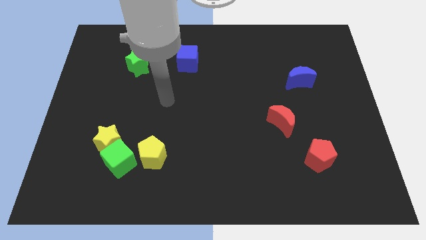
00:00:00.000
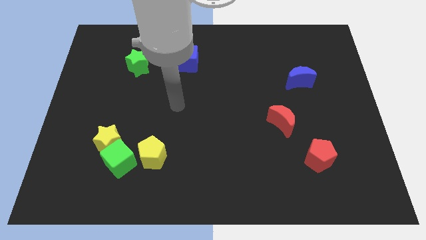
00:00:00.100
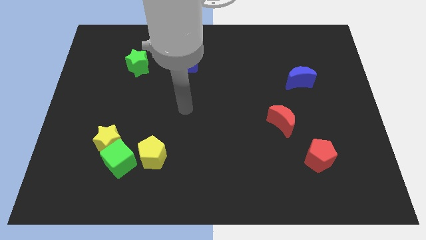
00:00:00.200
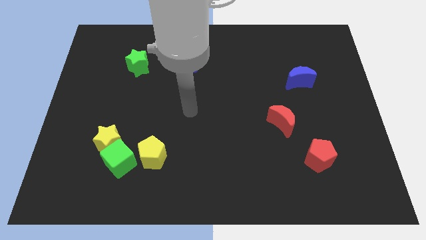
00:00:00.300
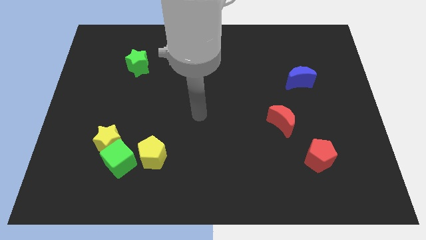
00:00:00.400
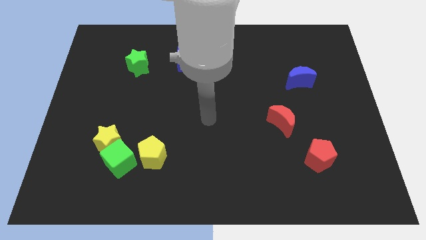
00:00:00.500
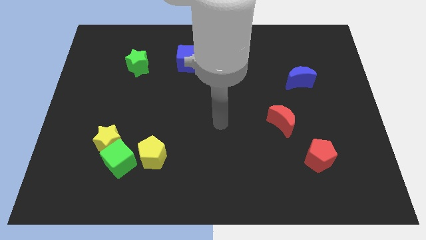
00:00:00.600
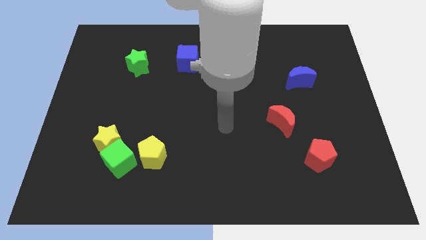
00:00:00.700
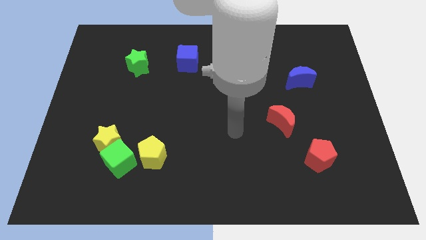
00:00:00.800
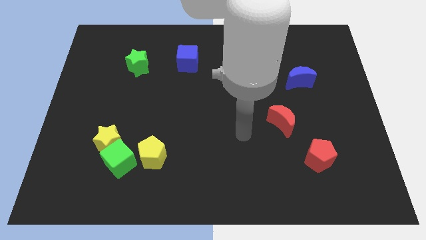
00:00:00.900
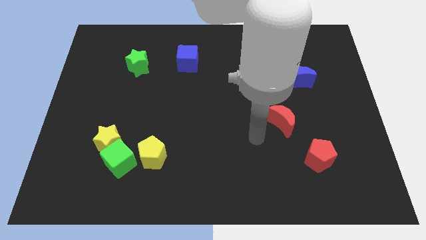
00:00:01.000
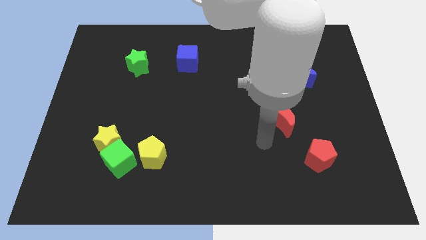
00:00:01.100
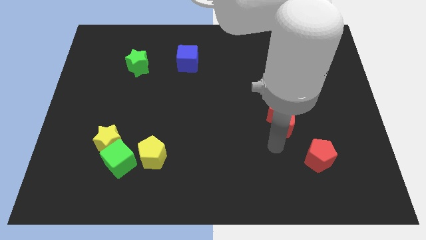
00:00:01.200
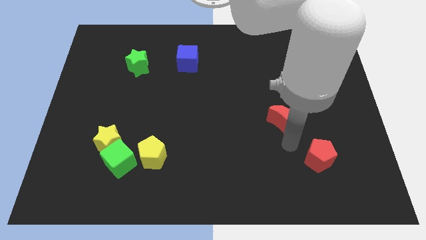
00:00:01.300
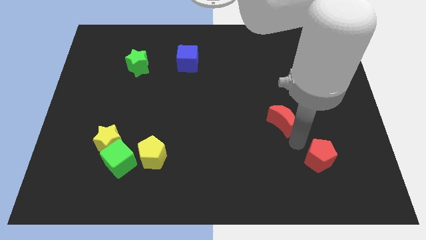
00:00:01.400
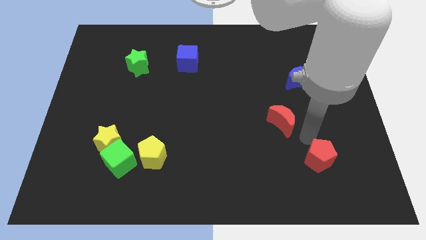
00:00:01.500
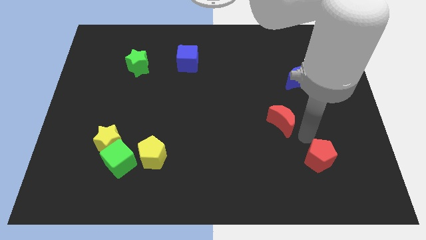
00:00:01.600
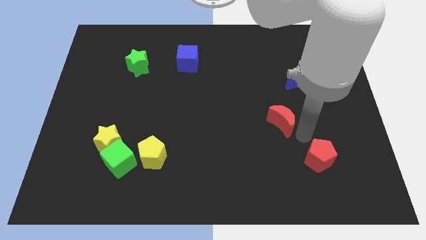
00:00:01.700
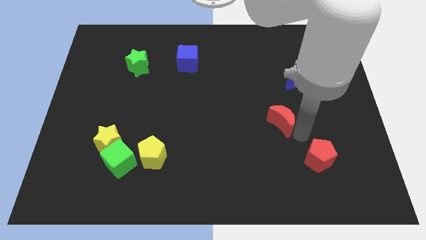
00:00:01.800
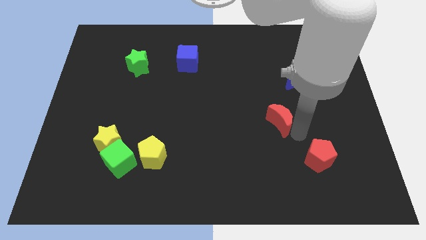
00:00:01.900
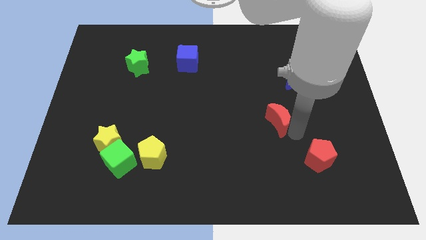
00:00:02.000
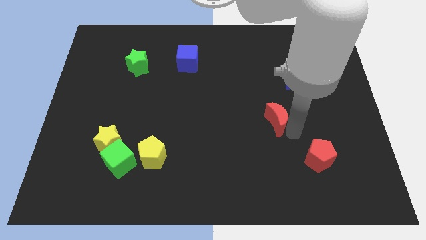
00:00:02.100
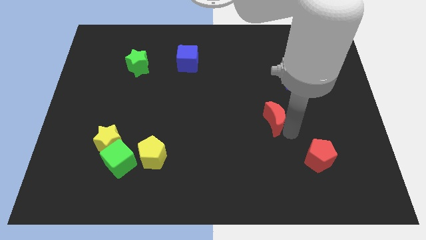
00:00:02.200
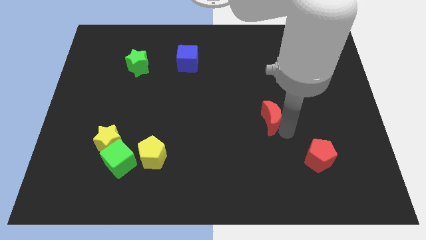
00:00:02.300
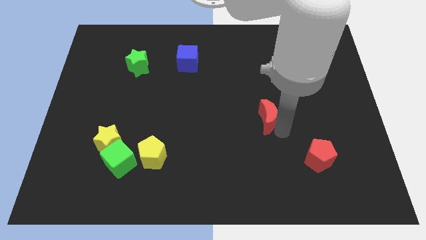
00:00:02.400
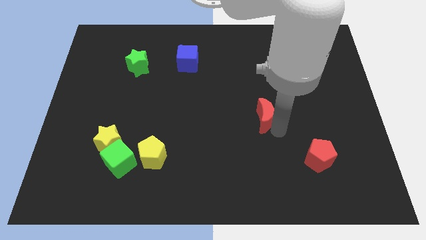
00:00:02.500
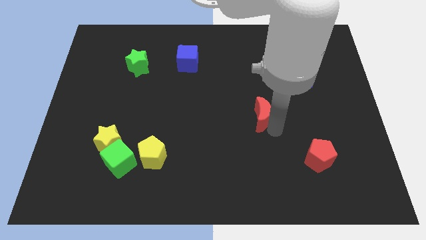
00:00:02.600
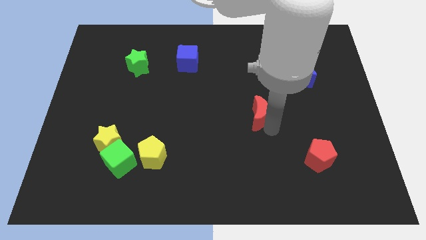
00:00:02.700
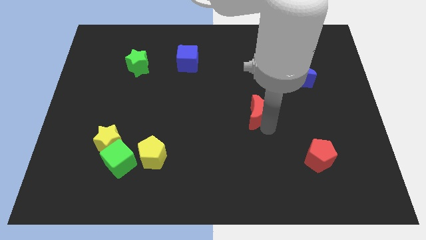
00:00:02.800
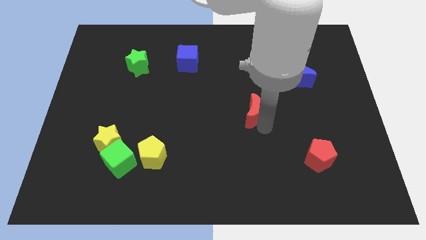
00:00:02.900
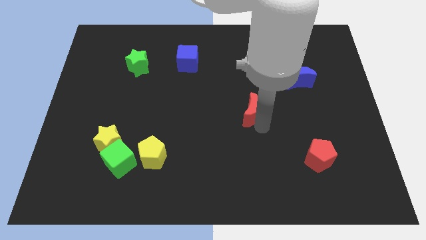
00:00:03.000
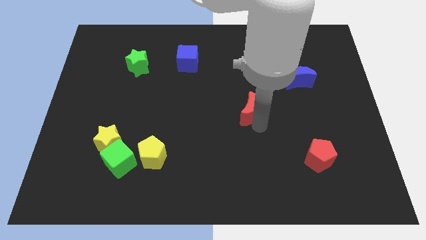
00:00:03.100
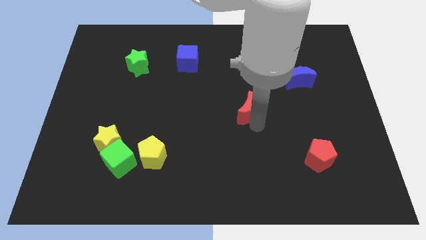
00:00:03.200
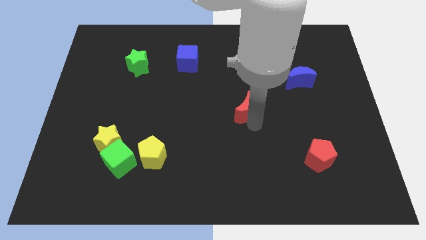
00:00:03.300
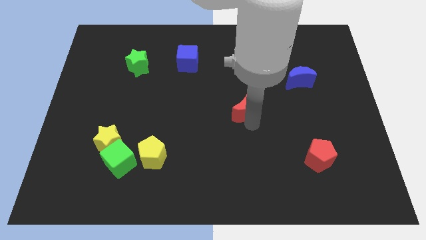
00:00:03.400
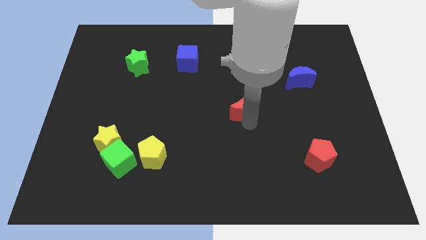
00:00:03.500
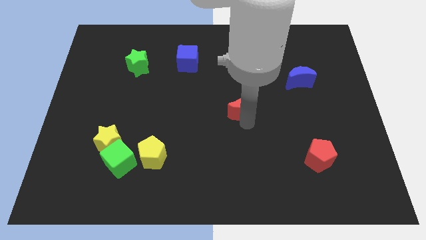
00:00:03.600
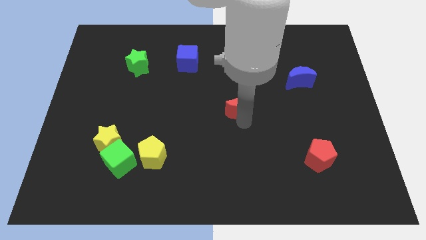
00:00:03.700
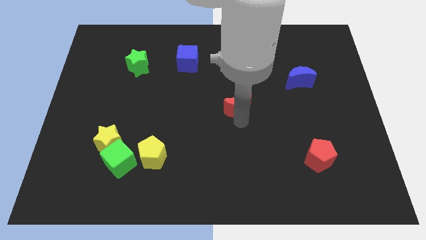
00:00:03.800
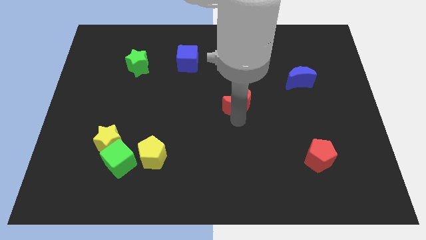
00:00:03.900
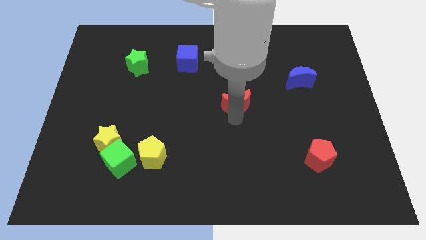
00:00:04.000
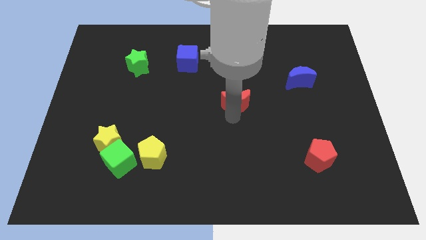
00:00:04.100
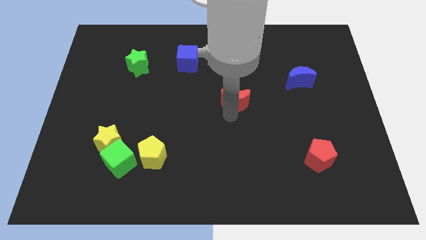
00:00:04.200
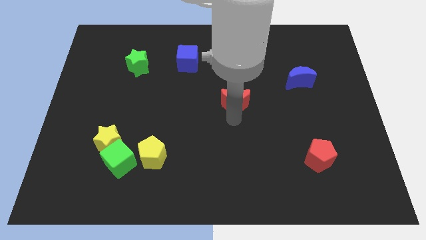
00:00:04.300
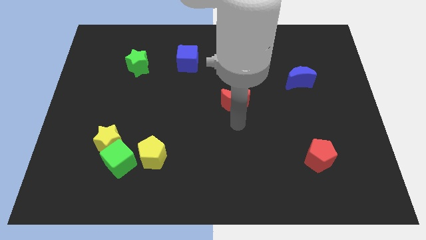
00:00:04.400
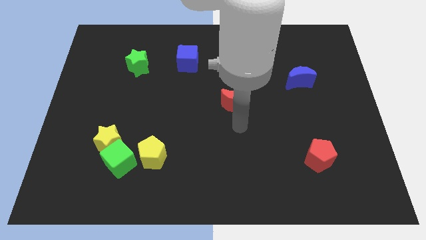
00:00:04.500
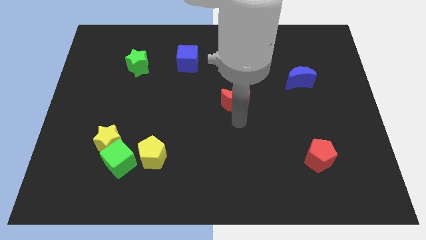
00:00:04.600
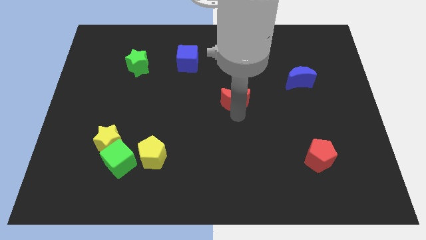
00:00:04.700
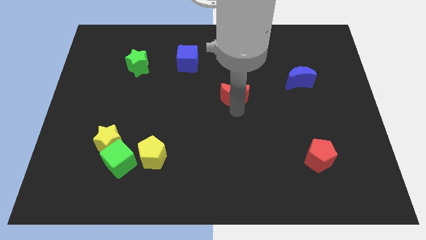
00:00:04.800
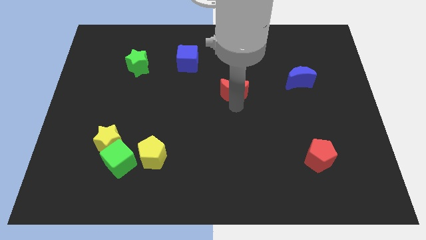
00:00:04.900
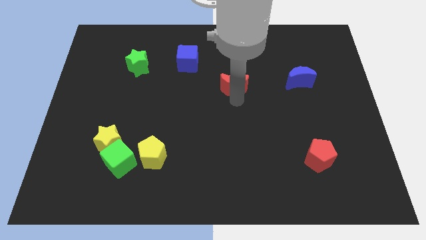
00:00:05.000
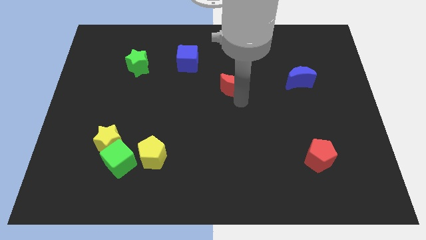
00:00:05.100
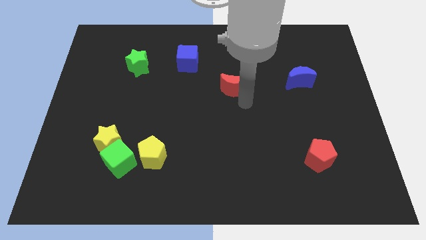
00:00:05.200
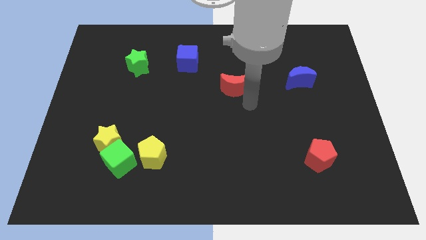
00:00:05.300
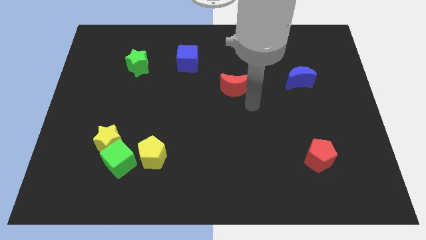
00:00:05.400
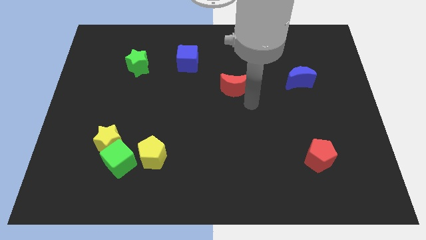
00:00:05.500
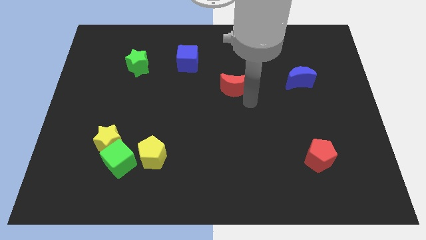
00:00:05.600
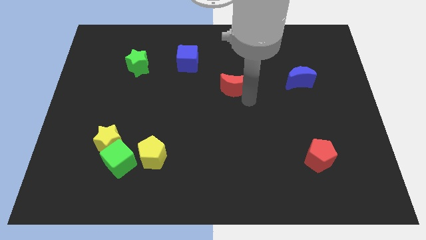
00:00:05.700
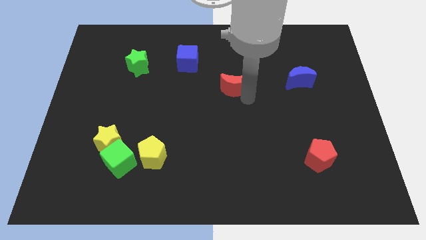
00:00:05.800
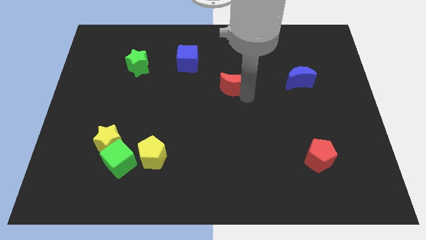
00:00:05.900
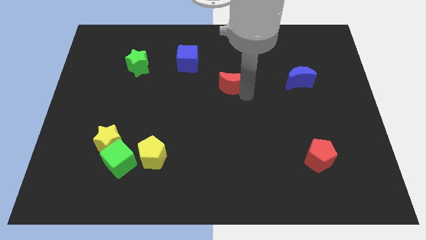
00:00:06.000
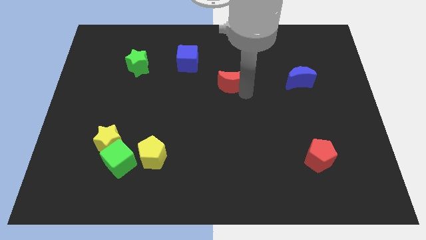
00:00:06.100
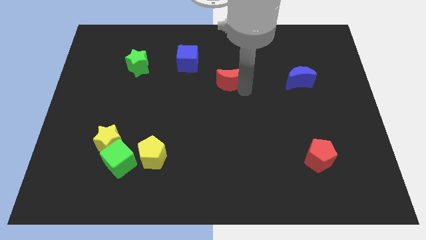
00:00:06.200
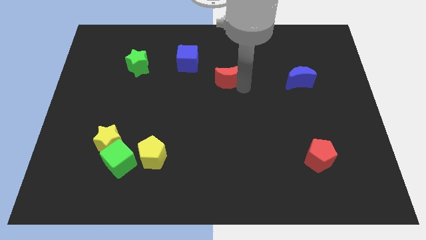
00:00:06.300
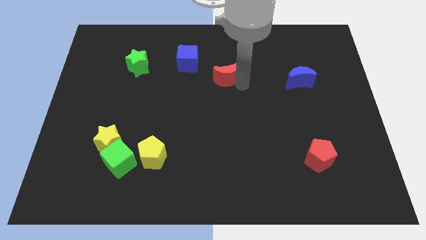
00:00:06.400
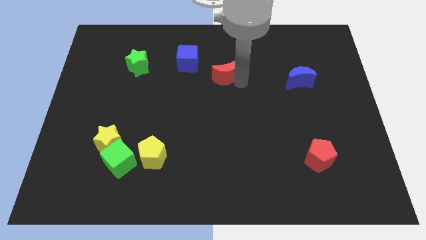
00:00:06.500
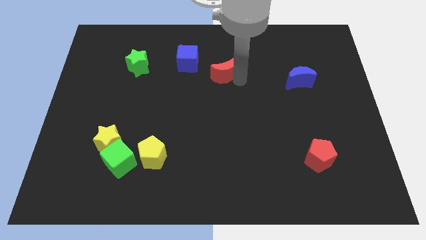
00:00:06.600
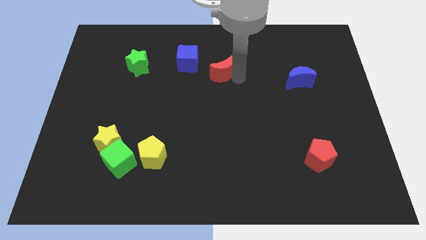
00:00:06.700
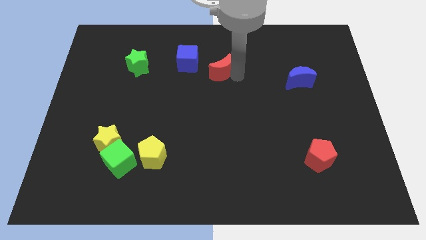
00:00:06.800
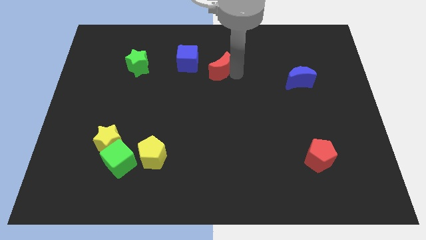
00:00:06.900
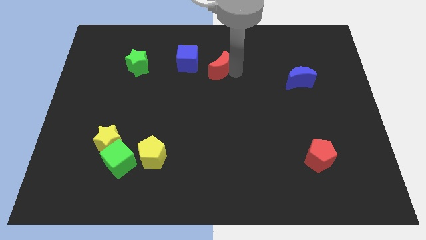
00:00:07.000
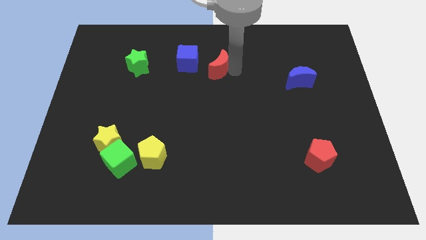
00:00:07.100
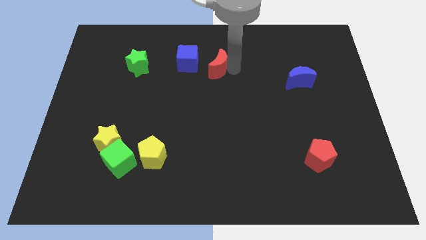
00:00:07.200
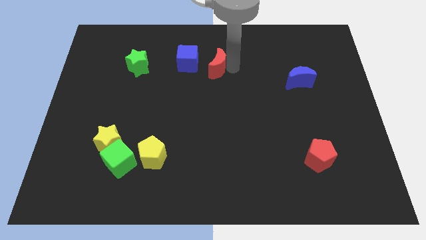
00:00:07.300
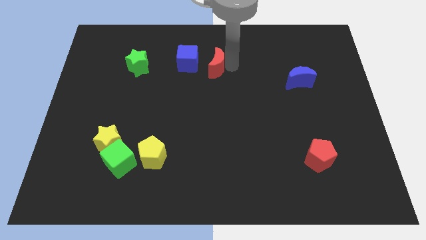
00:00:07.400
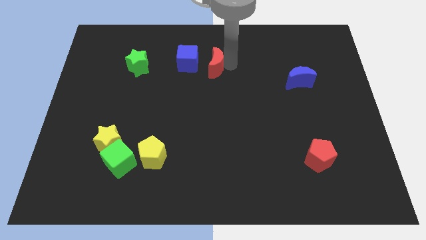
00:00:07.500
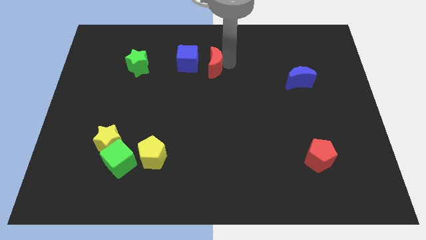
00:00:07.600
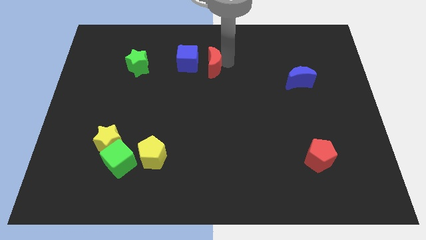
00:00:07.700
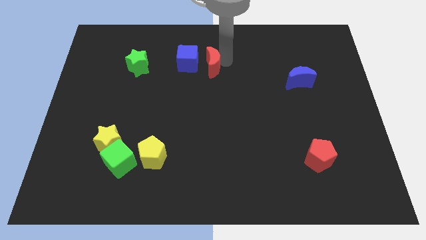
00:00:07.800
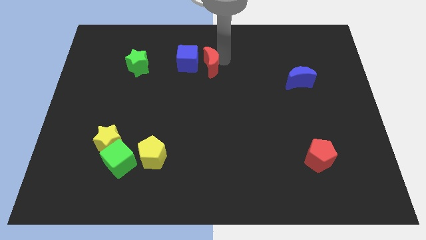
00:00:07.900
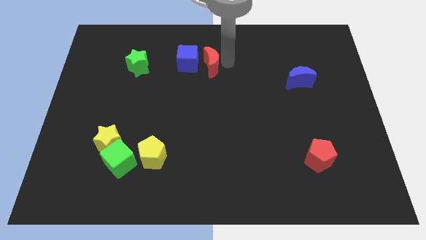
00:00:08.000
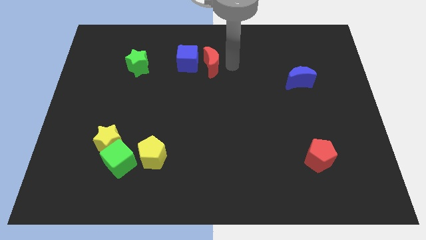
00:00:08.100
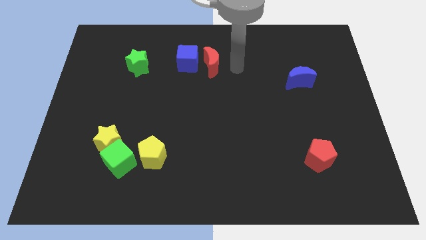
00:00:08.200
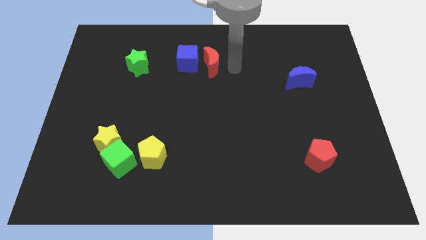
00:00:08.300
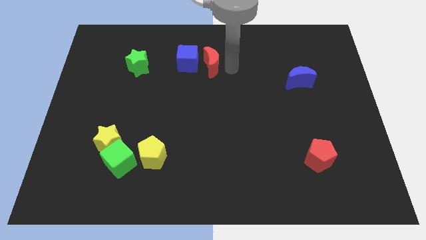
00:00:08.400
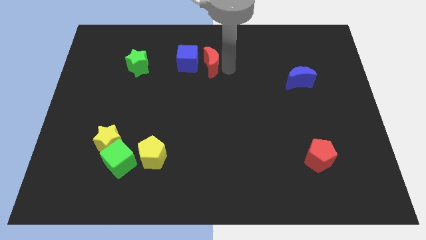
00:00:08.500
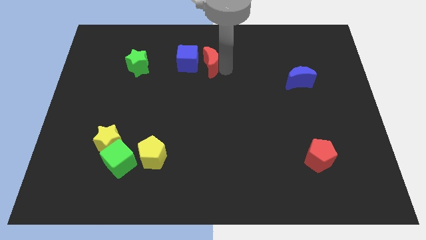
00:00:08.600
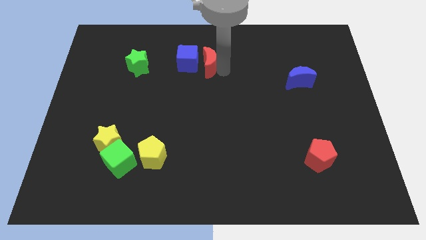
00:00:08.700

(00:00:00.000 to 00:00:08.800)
move the red moon next to the blue cube
